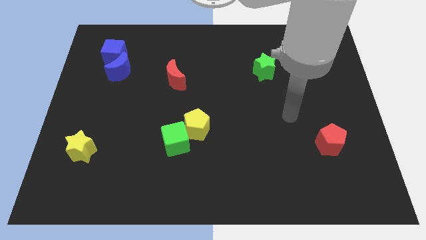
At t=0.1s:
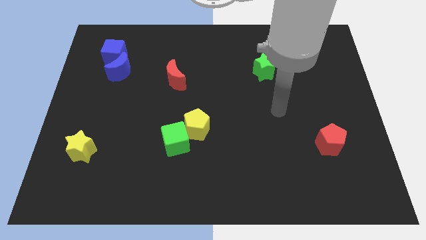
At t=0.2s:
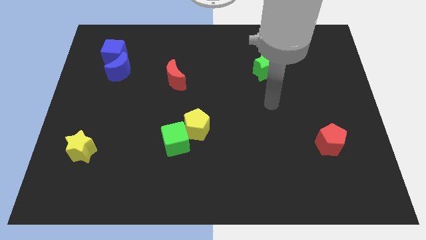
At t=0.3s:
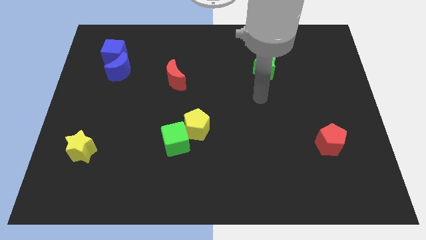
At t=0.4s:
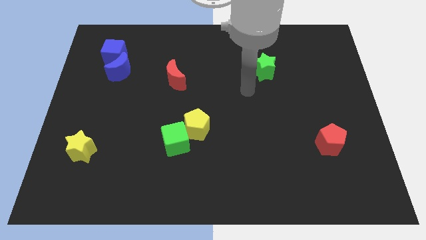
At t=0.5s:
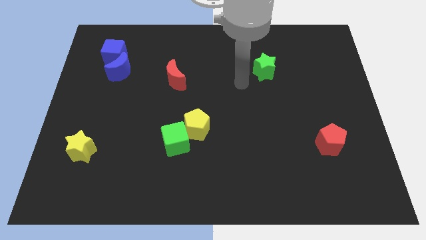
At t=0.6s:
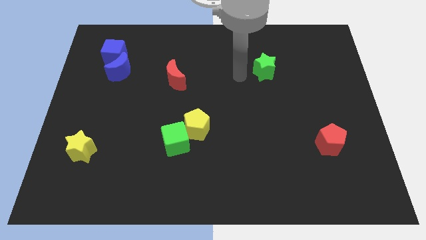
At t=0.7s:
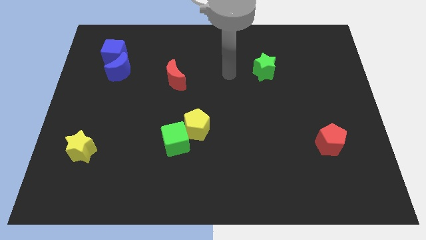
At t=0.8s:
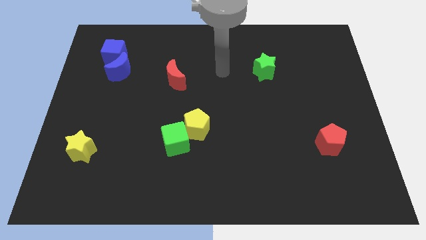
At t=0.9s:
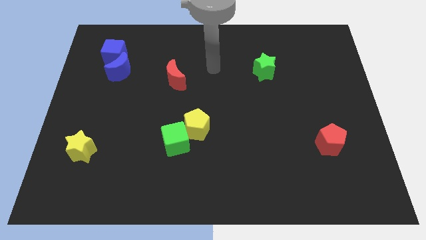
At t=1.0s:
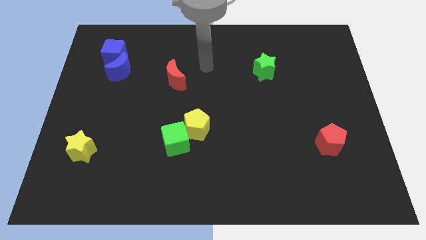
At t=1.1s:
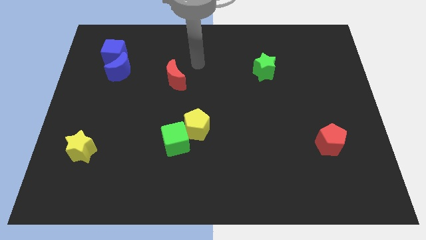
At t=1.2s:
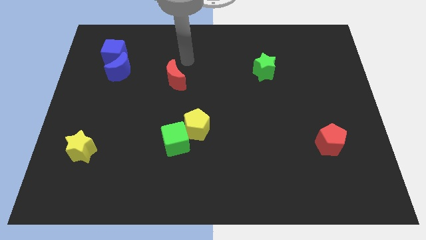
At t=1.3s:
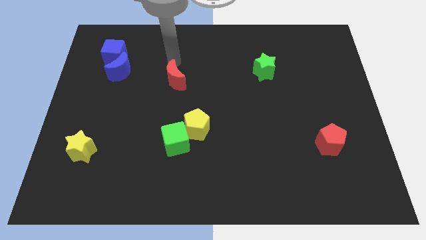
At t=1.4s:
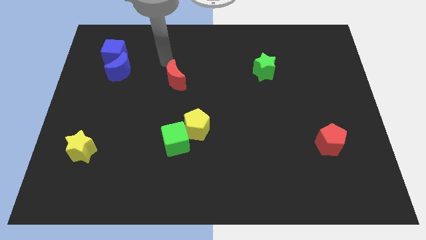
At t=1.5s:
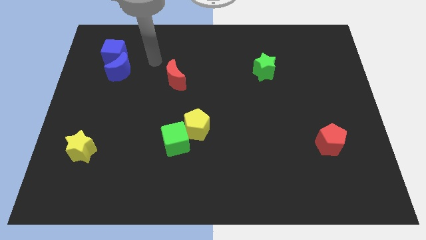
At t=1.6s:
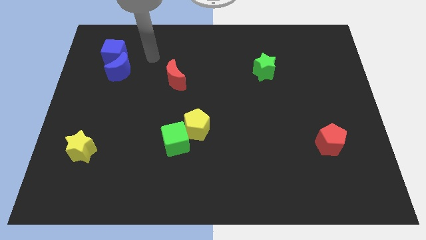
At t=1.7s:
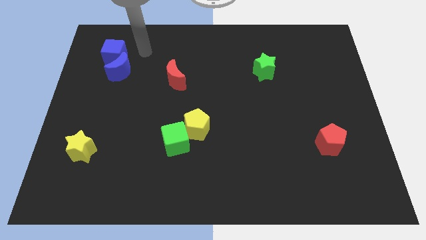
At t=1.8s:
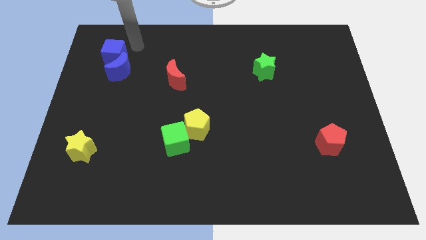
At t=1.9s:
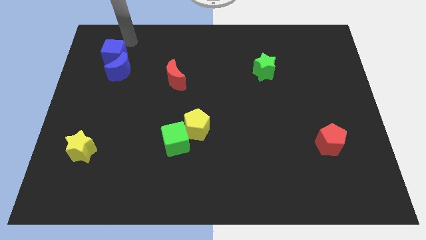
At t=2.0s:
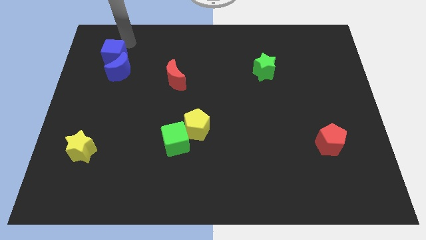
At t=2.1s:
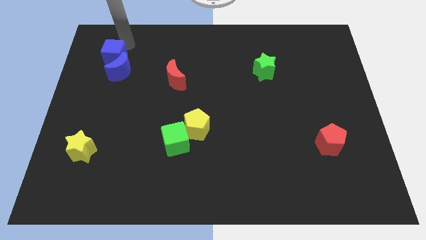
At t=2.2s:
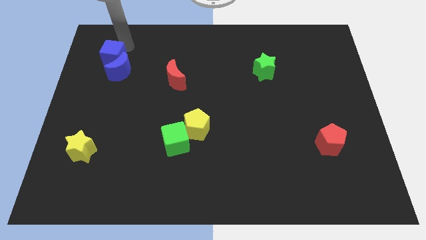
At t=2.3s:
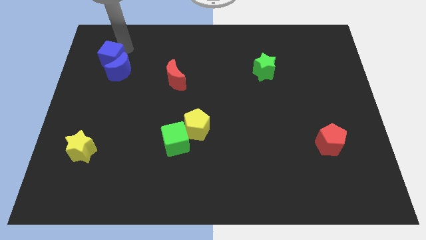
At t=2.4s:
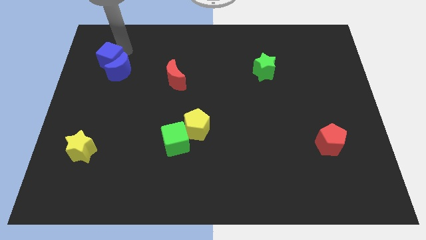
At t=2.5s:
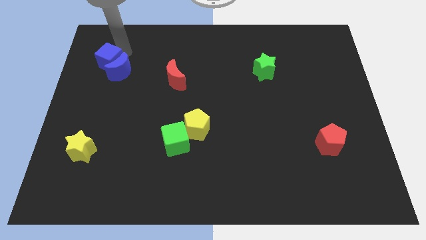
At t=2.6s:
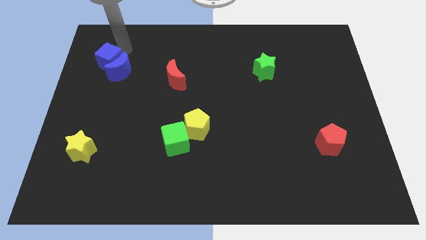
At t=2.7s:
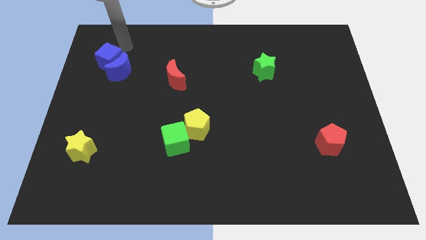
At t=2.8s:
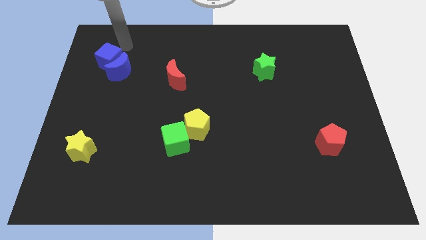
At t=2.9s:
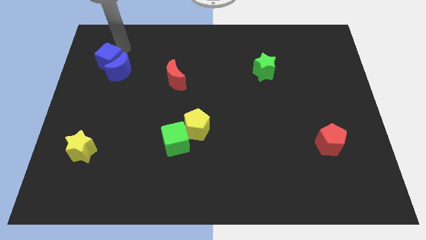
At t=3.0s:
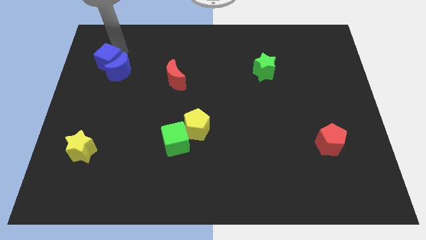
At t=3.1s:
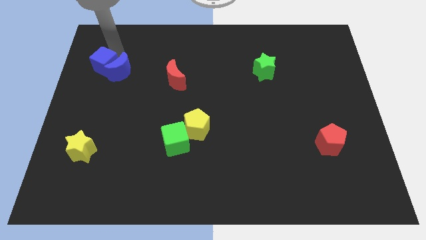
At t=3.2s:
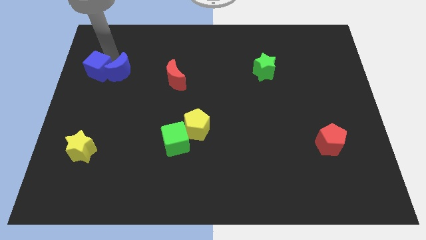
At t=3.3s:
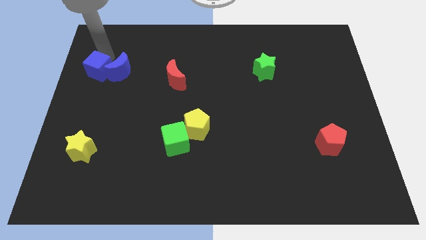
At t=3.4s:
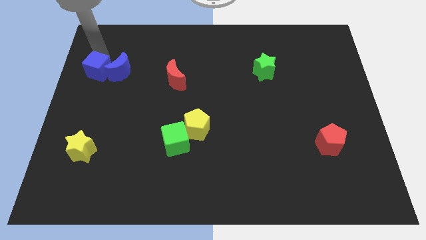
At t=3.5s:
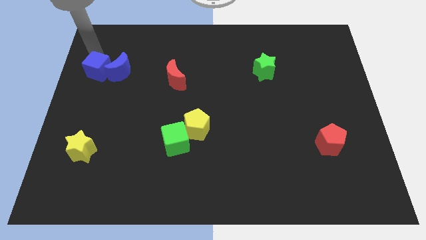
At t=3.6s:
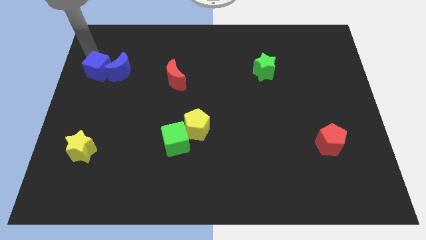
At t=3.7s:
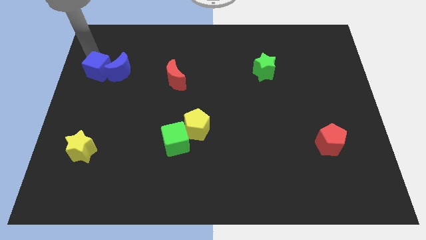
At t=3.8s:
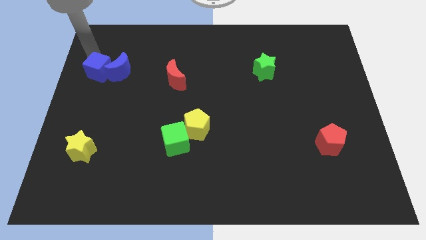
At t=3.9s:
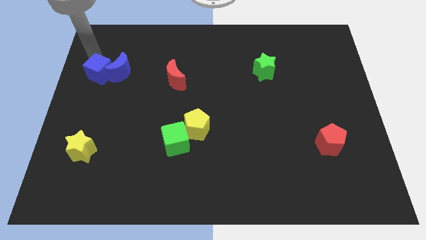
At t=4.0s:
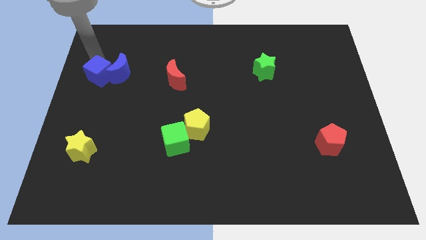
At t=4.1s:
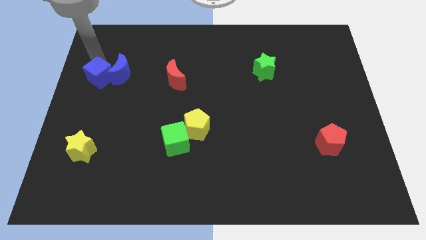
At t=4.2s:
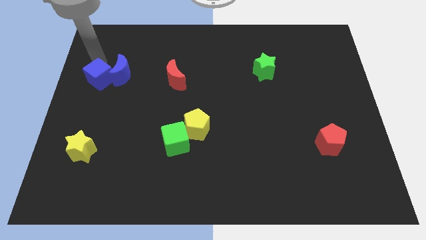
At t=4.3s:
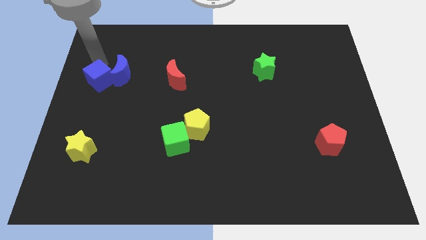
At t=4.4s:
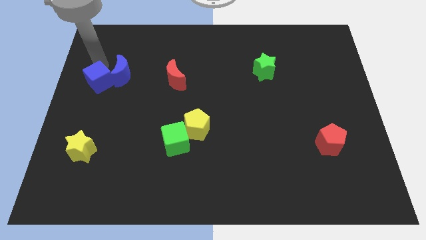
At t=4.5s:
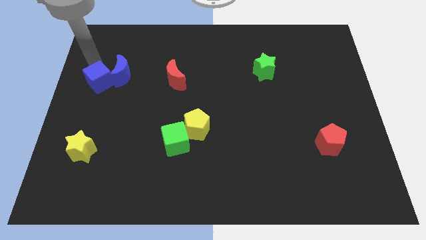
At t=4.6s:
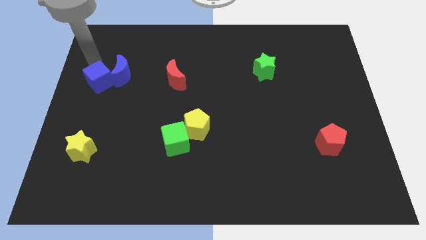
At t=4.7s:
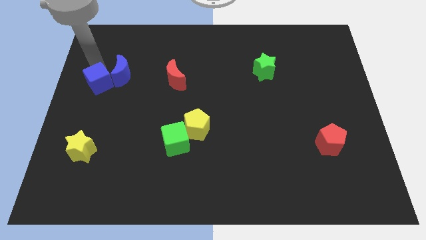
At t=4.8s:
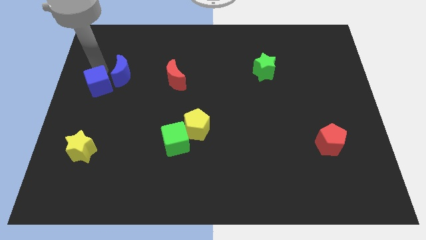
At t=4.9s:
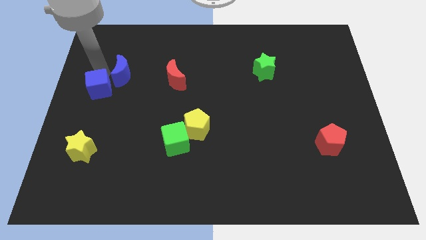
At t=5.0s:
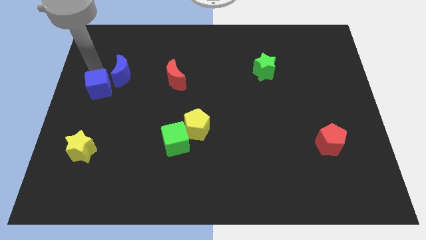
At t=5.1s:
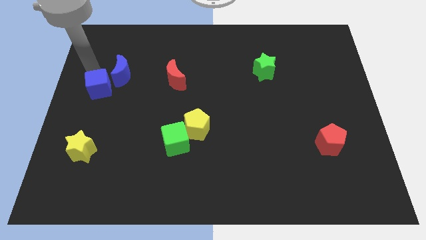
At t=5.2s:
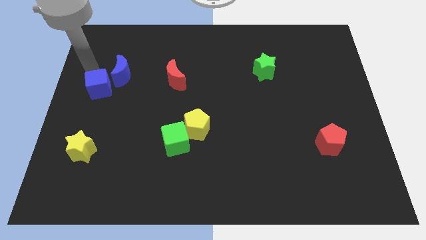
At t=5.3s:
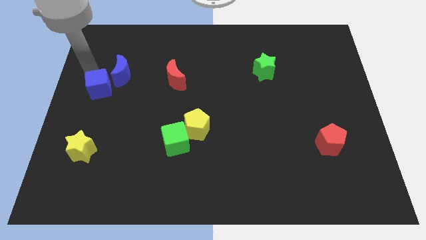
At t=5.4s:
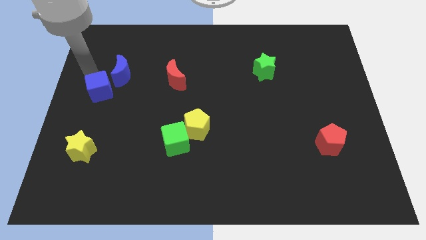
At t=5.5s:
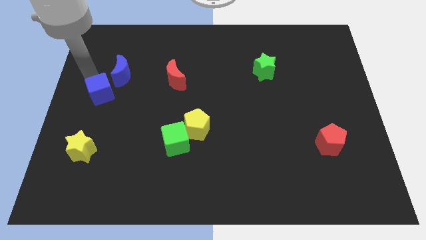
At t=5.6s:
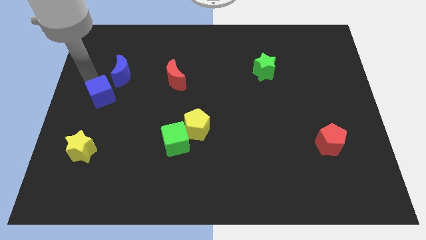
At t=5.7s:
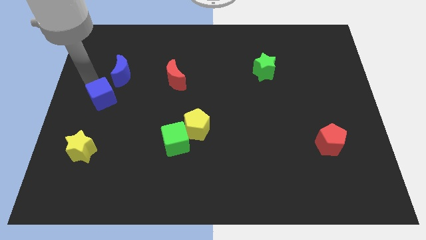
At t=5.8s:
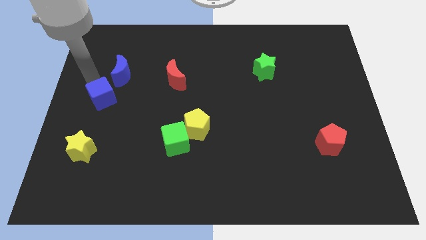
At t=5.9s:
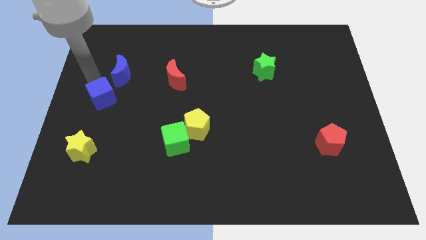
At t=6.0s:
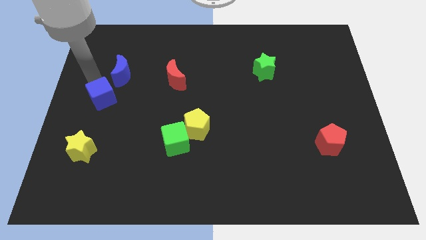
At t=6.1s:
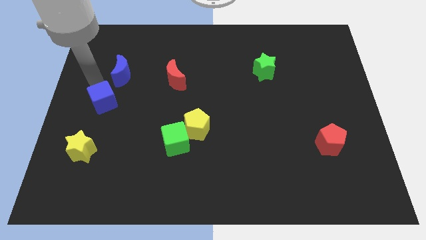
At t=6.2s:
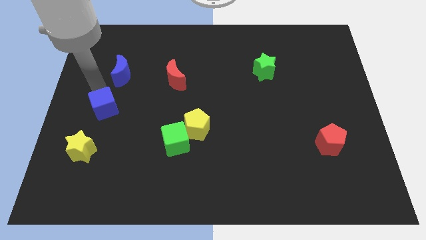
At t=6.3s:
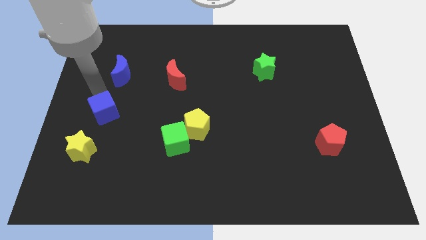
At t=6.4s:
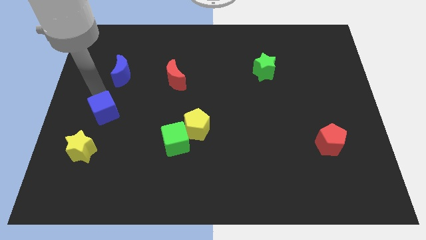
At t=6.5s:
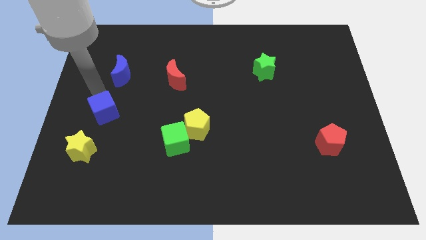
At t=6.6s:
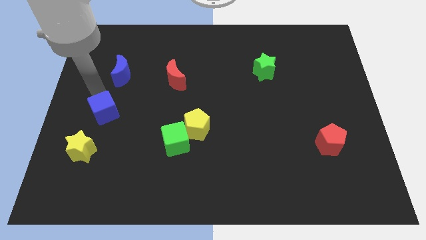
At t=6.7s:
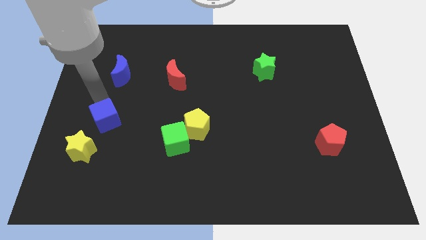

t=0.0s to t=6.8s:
slide the blue cube down

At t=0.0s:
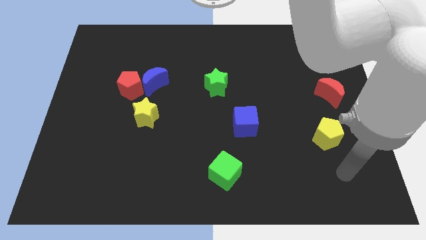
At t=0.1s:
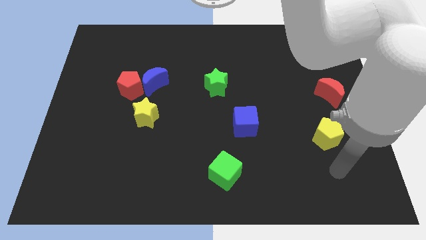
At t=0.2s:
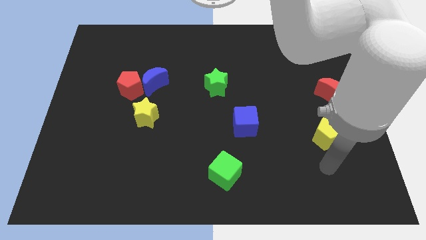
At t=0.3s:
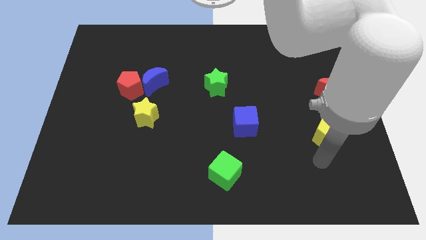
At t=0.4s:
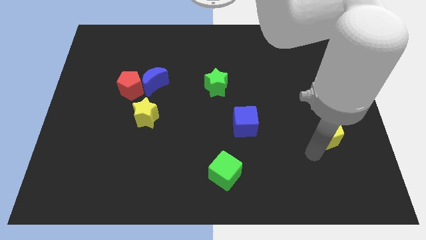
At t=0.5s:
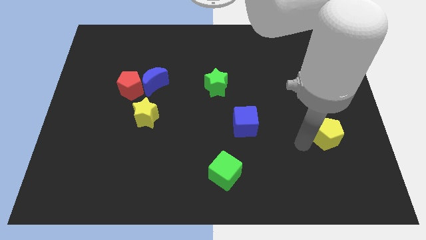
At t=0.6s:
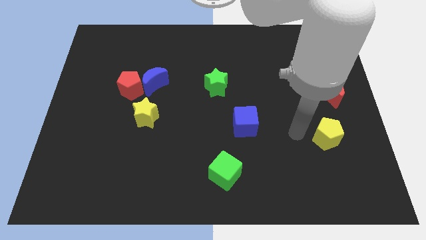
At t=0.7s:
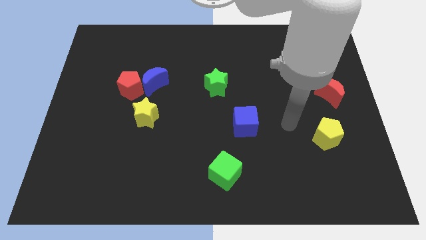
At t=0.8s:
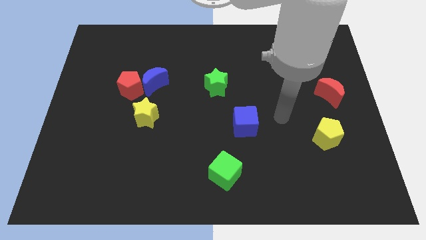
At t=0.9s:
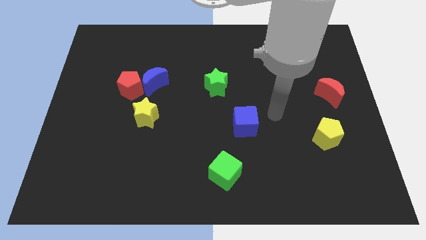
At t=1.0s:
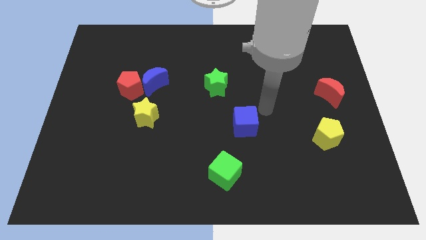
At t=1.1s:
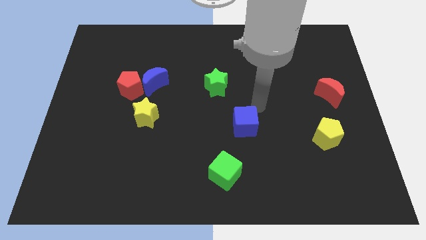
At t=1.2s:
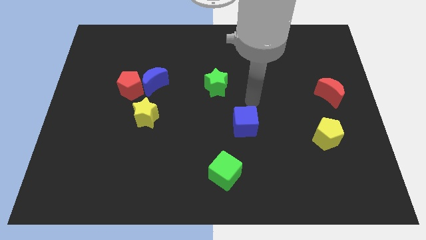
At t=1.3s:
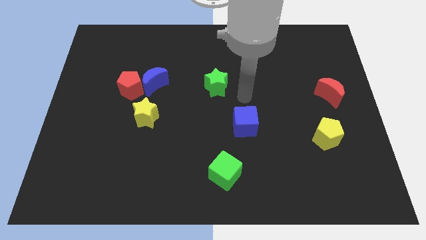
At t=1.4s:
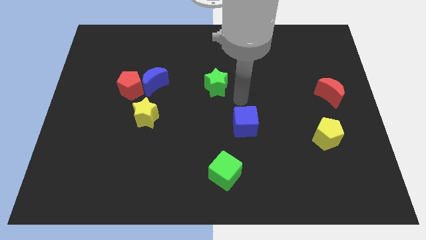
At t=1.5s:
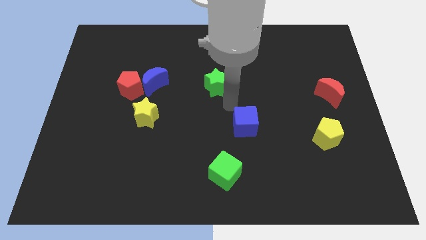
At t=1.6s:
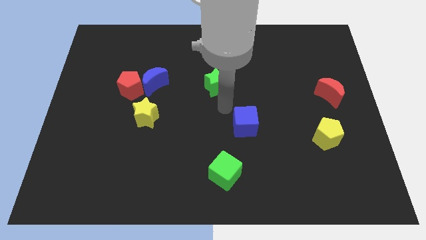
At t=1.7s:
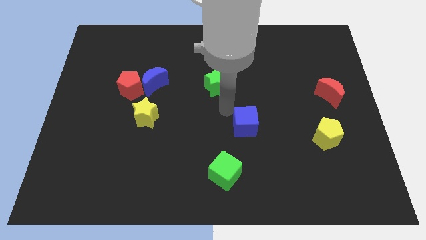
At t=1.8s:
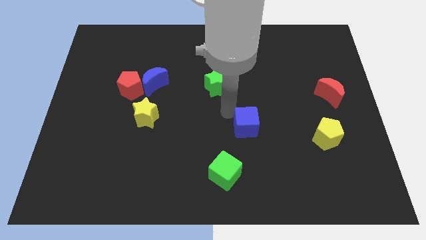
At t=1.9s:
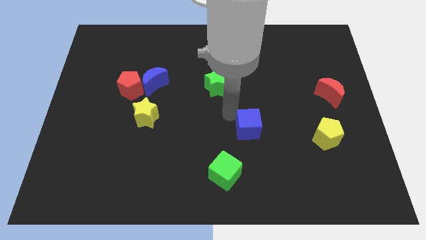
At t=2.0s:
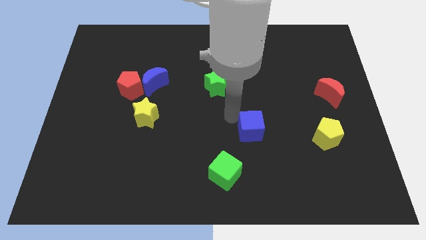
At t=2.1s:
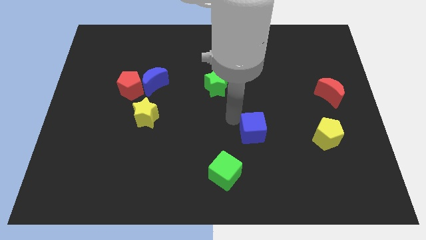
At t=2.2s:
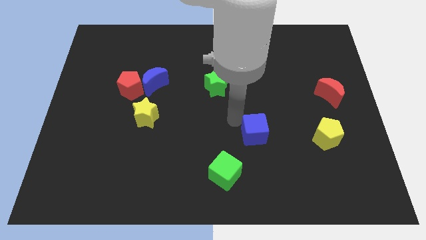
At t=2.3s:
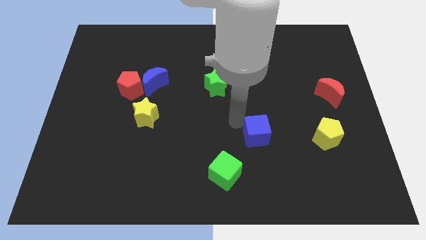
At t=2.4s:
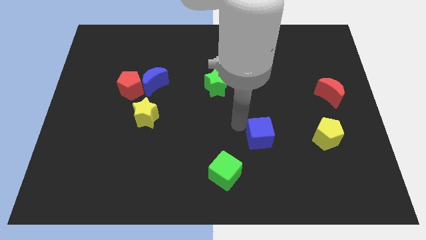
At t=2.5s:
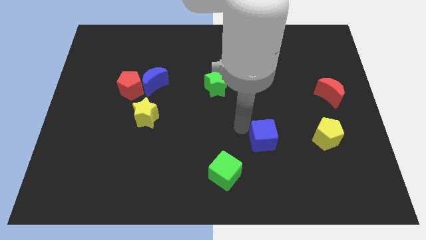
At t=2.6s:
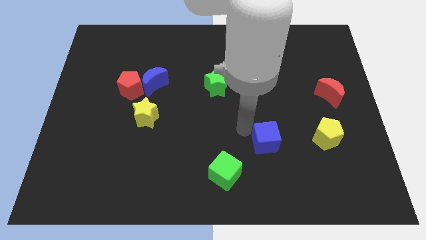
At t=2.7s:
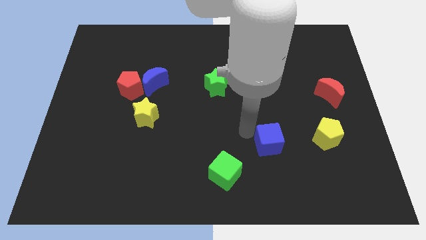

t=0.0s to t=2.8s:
slightly move the blue cube down and to the right
